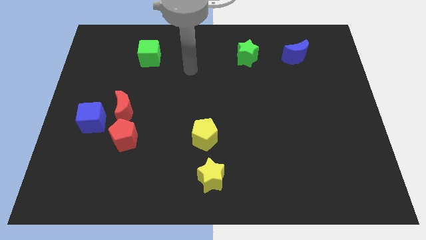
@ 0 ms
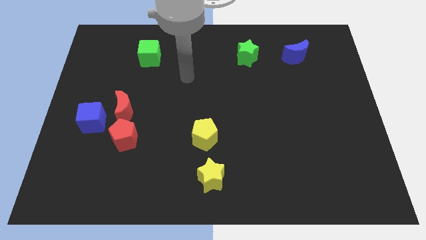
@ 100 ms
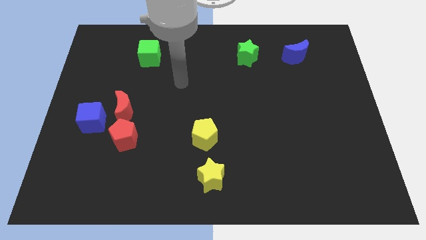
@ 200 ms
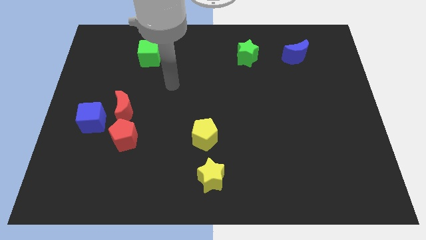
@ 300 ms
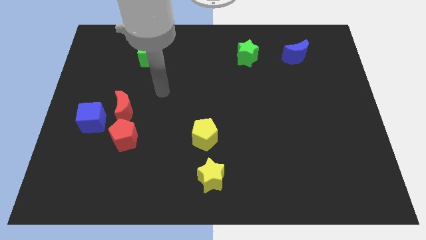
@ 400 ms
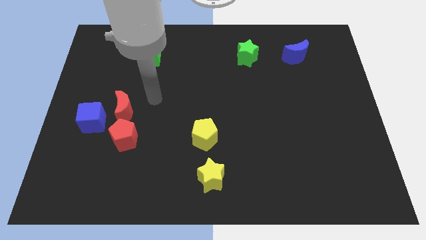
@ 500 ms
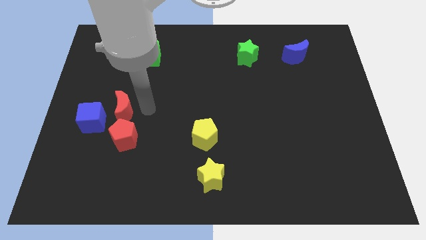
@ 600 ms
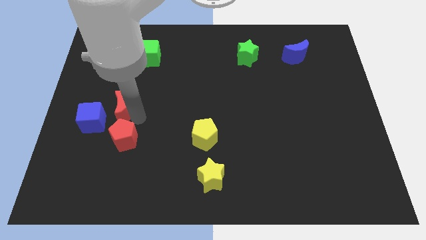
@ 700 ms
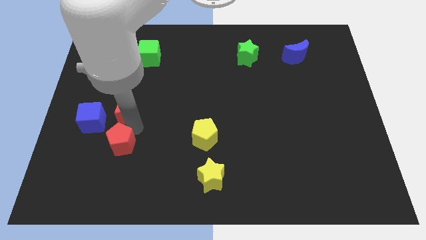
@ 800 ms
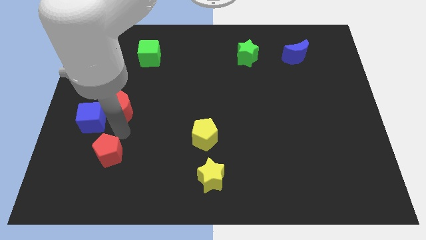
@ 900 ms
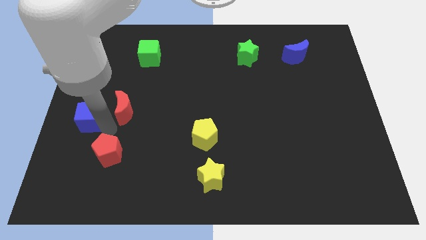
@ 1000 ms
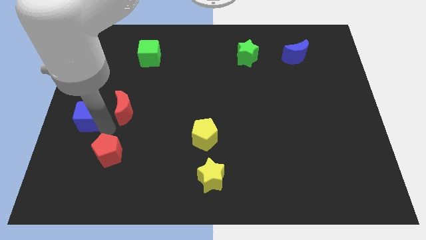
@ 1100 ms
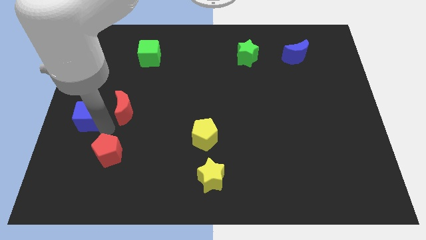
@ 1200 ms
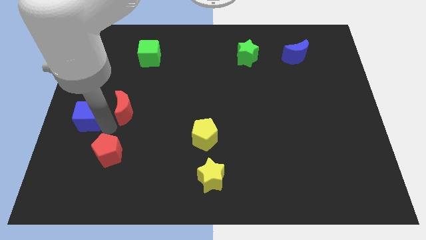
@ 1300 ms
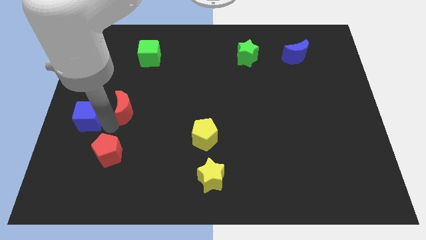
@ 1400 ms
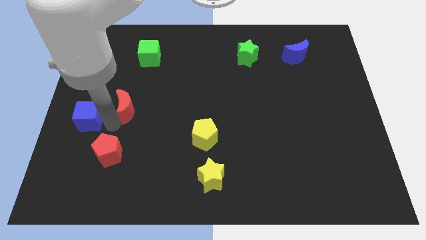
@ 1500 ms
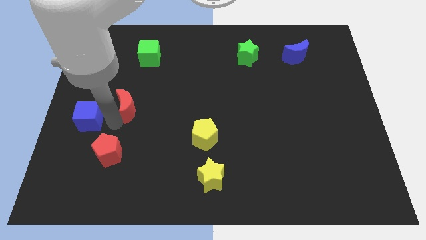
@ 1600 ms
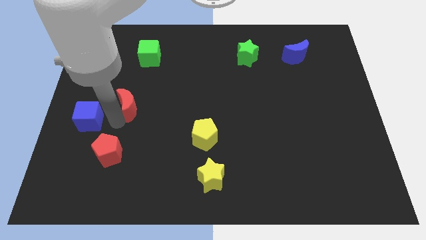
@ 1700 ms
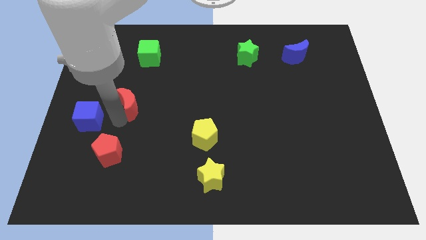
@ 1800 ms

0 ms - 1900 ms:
pull the red moon apart from the blue cube and red pentagon

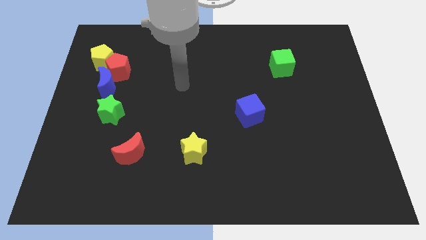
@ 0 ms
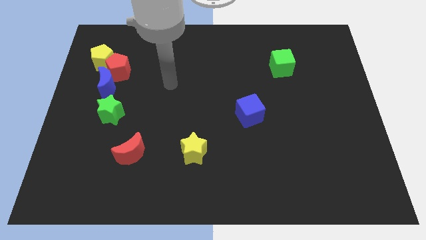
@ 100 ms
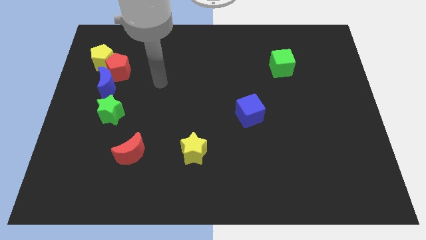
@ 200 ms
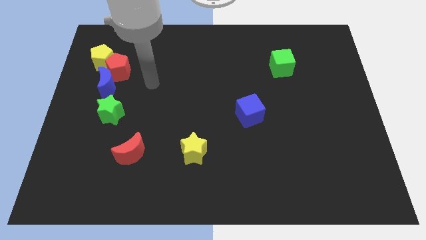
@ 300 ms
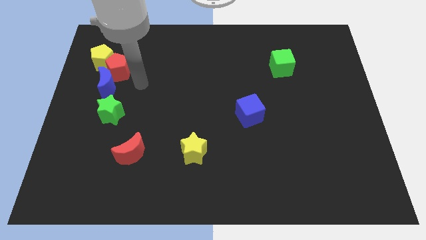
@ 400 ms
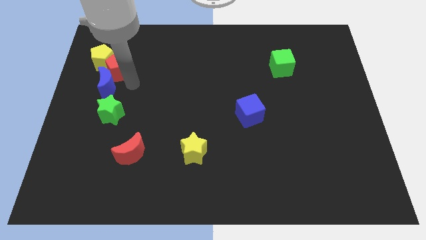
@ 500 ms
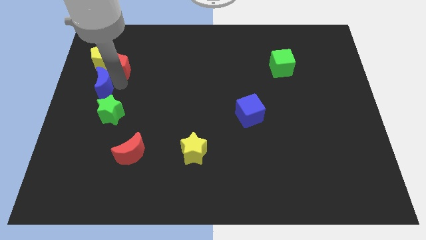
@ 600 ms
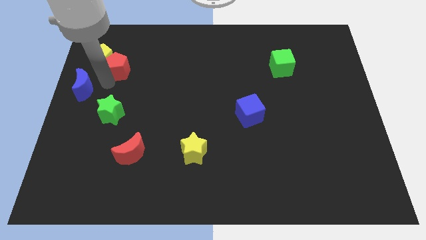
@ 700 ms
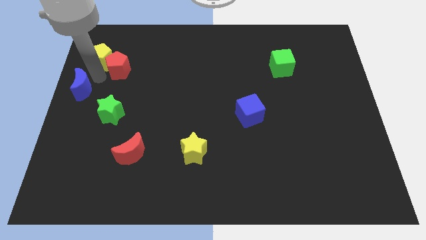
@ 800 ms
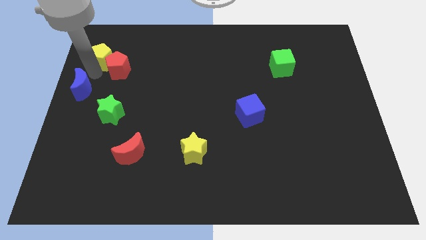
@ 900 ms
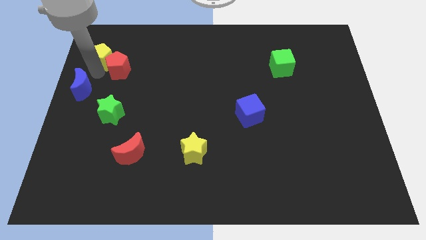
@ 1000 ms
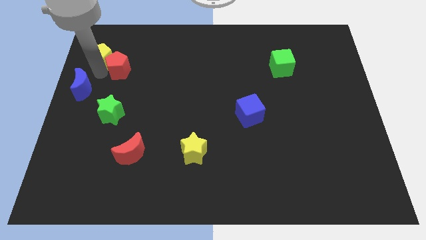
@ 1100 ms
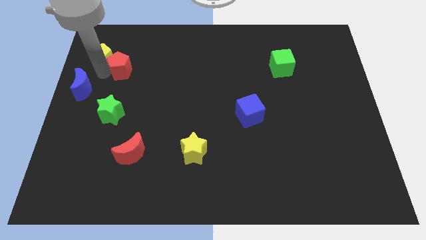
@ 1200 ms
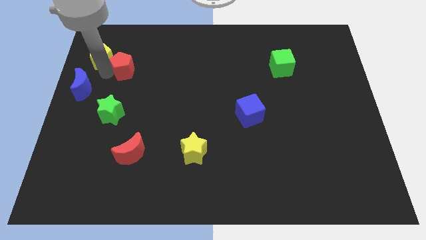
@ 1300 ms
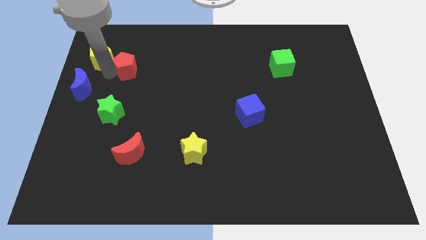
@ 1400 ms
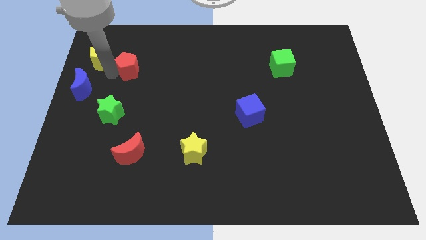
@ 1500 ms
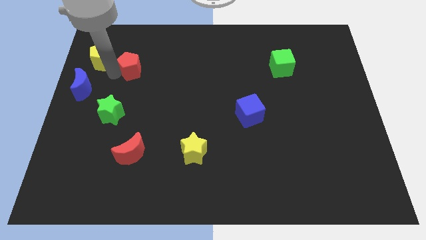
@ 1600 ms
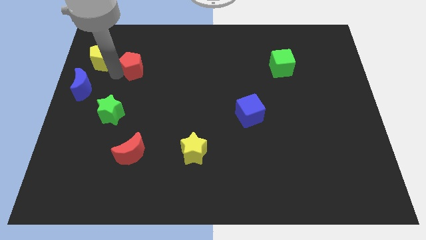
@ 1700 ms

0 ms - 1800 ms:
move the red pentagon away from the blue moon and yellow pentagon

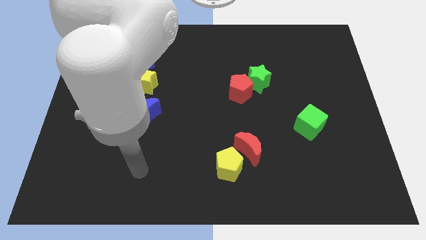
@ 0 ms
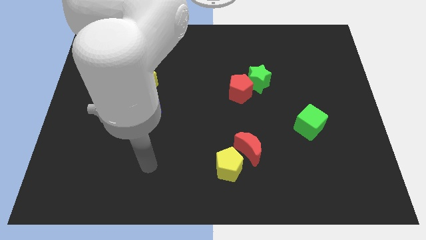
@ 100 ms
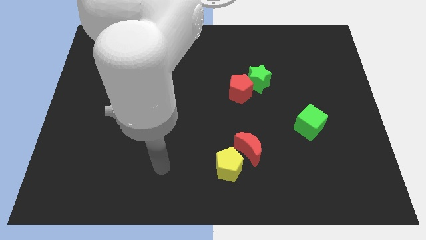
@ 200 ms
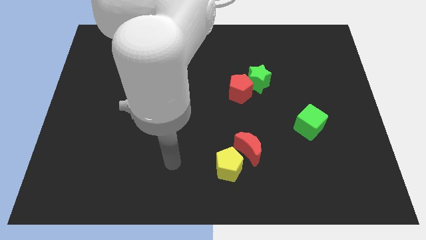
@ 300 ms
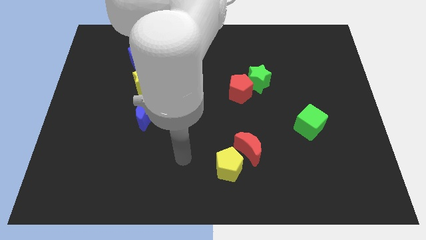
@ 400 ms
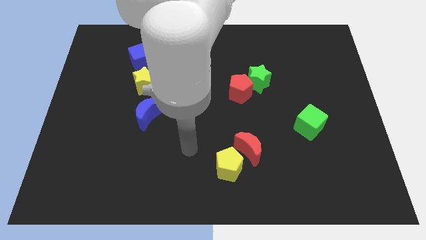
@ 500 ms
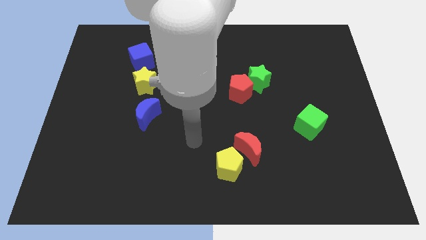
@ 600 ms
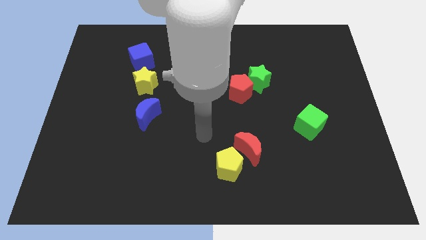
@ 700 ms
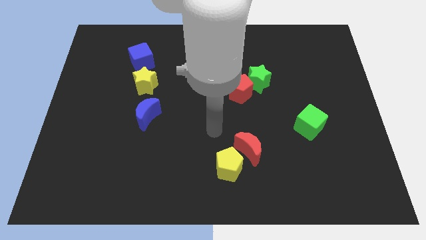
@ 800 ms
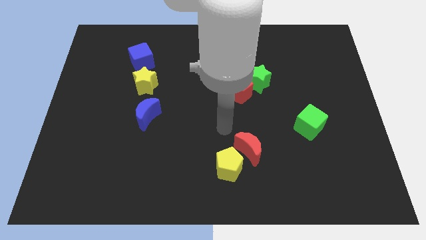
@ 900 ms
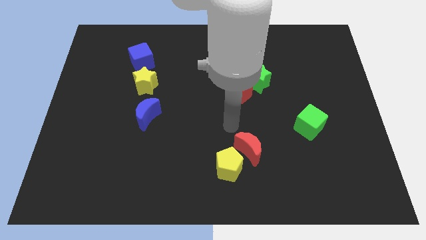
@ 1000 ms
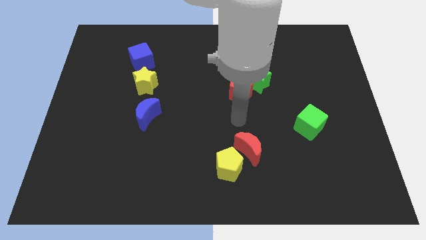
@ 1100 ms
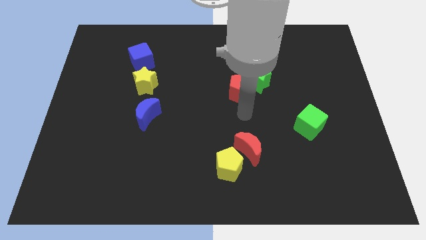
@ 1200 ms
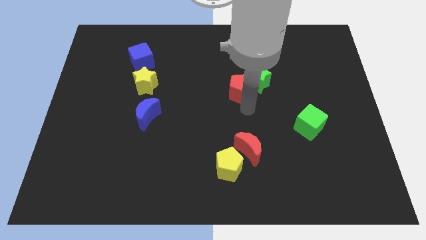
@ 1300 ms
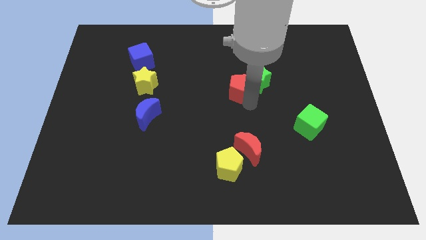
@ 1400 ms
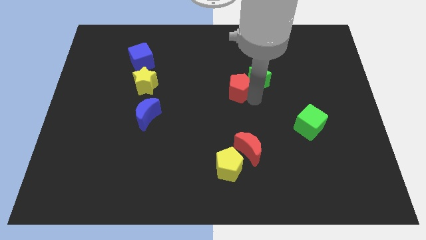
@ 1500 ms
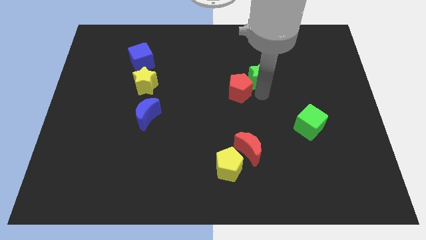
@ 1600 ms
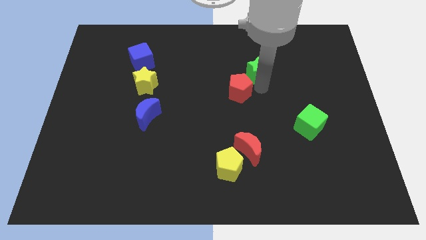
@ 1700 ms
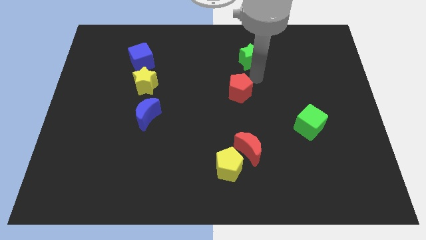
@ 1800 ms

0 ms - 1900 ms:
pull the red pentagon apart from the green star

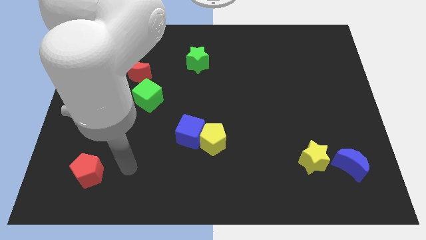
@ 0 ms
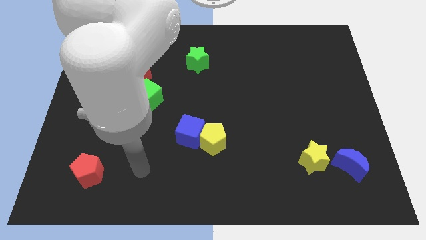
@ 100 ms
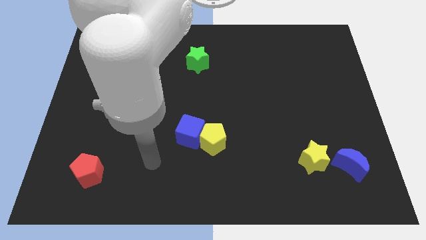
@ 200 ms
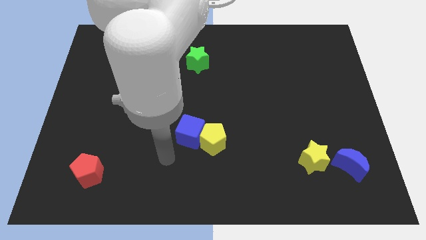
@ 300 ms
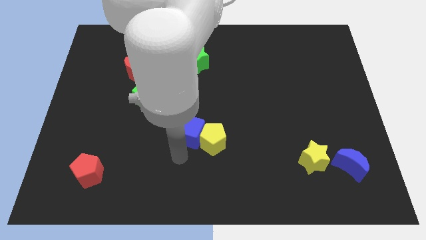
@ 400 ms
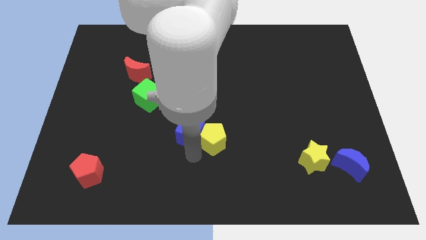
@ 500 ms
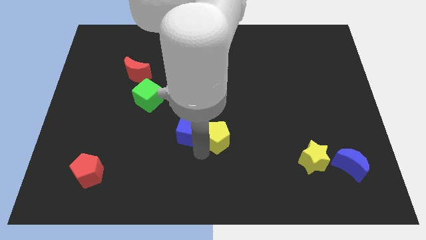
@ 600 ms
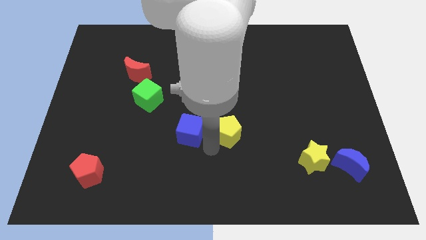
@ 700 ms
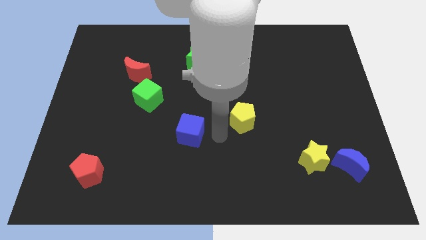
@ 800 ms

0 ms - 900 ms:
move the blue cube away from the yellow pentagon

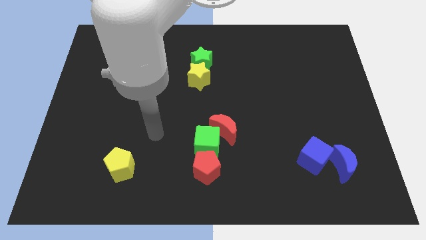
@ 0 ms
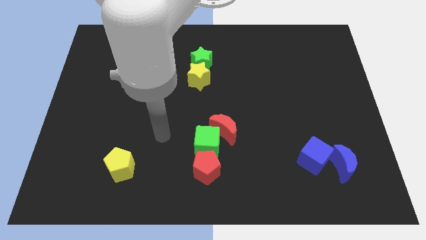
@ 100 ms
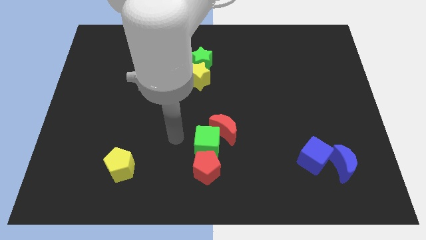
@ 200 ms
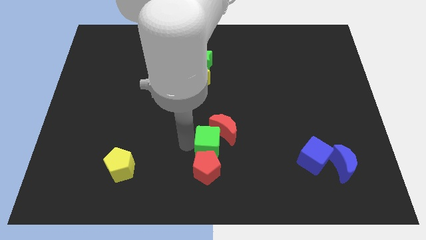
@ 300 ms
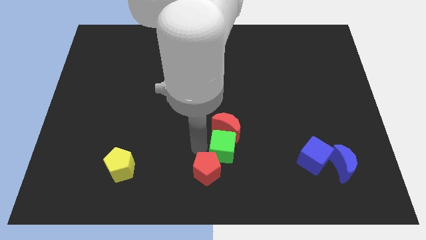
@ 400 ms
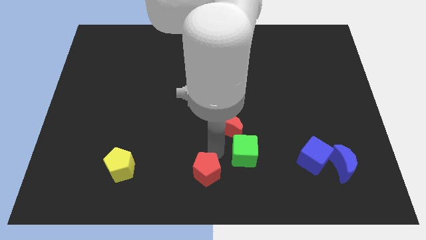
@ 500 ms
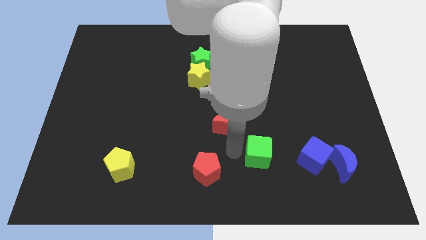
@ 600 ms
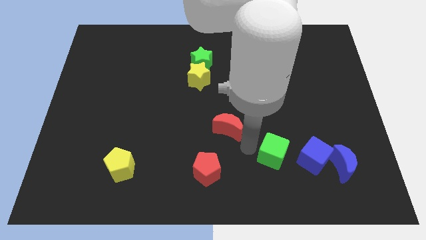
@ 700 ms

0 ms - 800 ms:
pull the red moon apart from the green cube

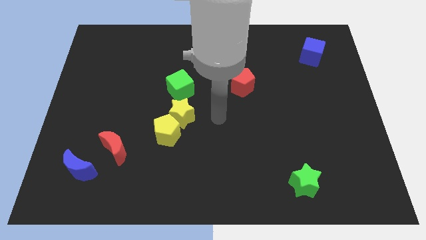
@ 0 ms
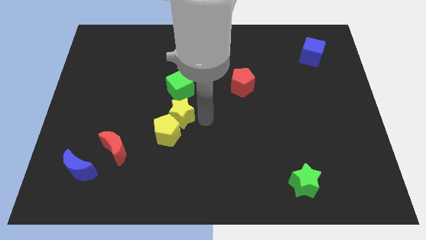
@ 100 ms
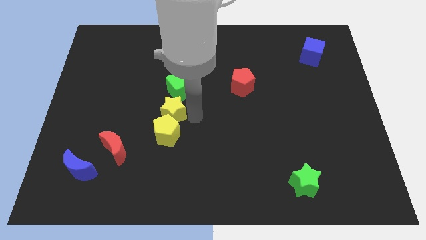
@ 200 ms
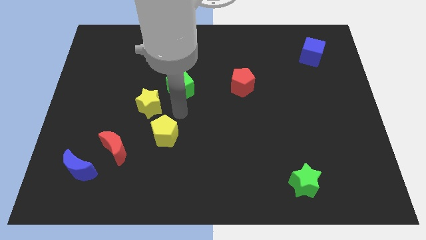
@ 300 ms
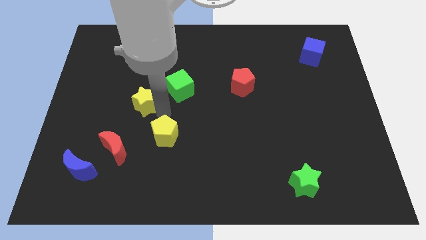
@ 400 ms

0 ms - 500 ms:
pull the yellow pentagon apart from the yellow star

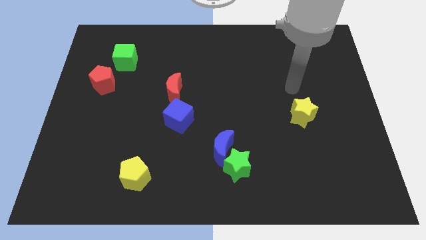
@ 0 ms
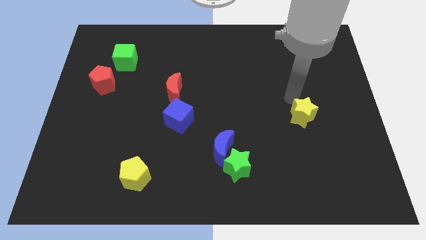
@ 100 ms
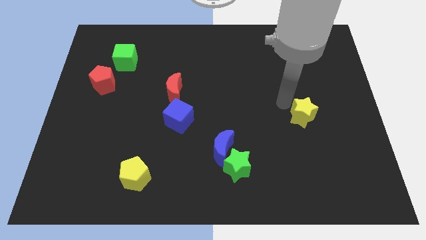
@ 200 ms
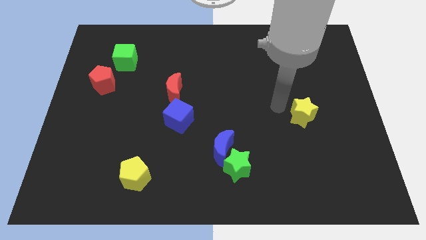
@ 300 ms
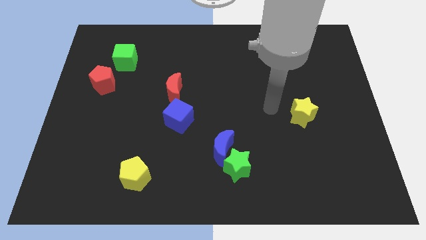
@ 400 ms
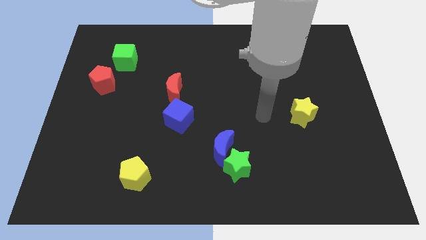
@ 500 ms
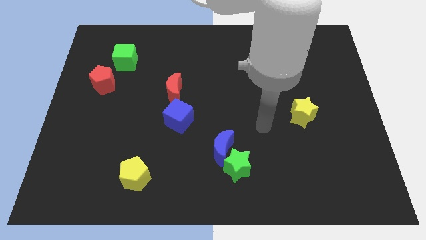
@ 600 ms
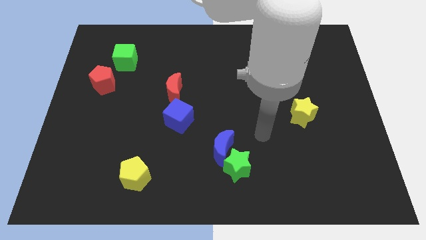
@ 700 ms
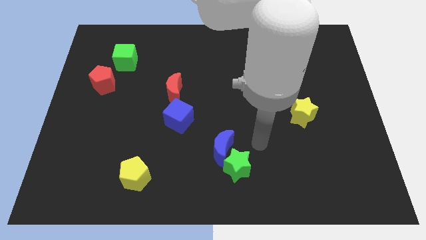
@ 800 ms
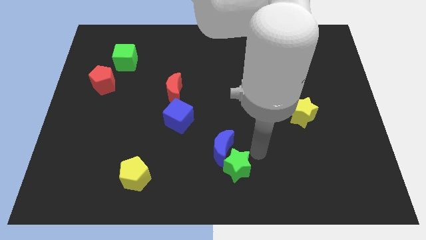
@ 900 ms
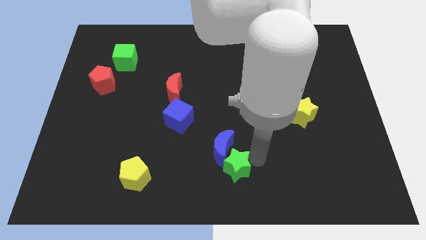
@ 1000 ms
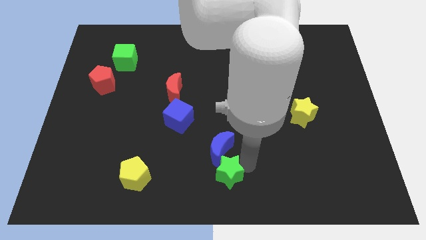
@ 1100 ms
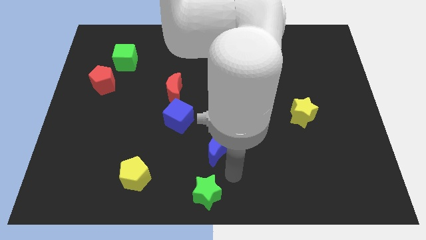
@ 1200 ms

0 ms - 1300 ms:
separate the blue moon from the green star

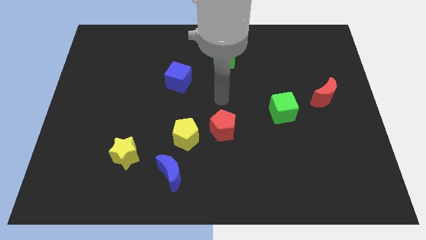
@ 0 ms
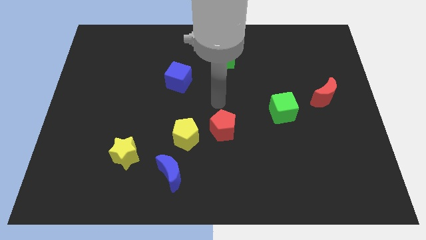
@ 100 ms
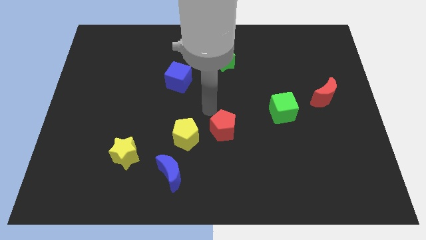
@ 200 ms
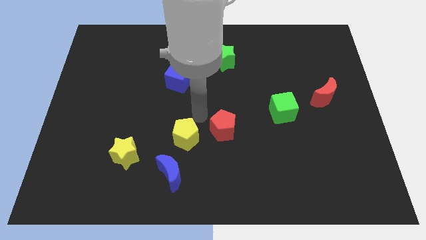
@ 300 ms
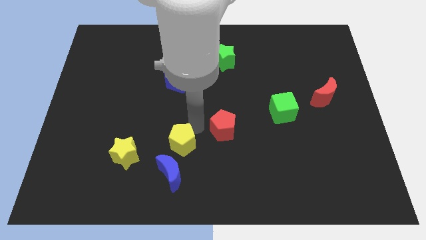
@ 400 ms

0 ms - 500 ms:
pull the red pentagon apart from the yellow pentagon
